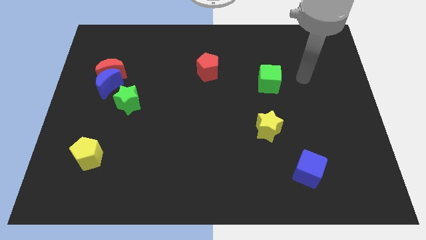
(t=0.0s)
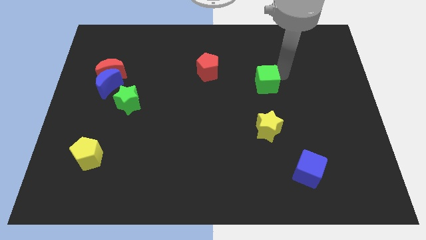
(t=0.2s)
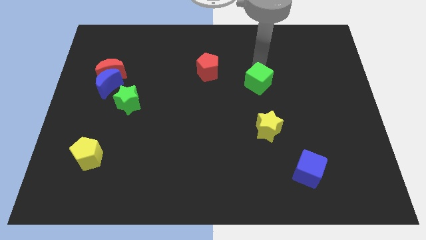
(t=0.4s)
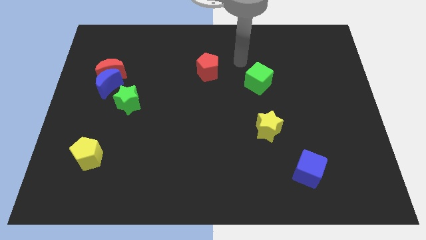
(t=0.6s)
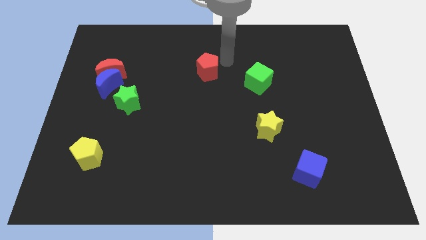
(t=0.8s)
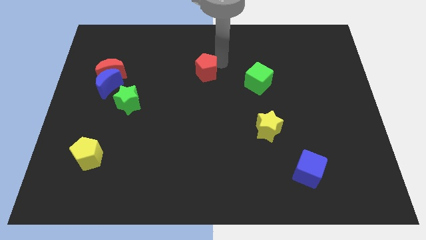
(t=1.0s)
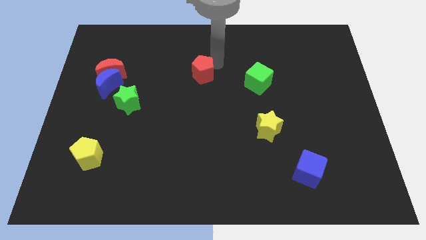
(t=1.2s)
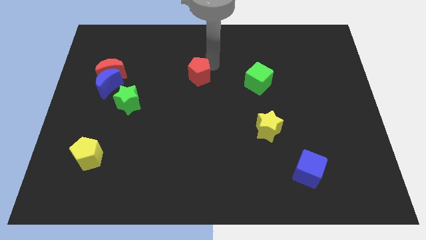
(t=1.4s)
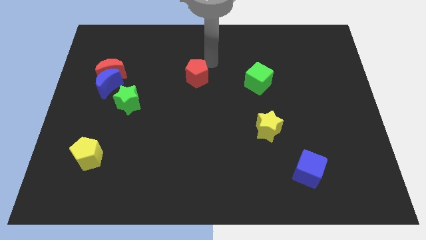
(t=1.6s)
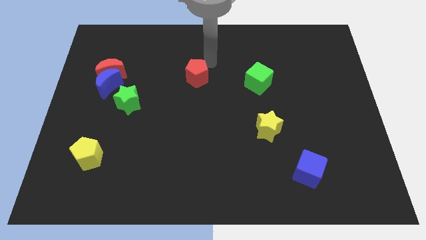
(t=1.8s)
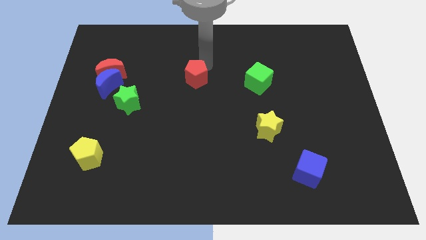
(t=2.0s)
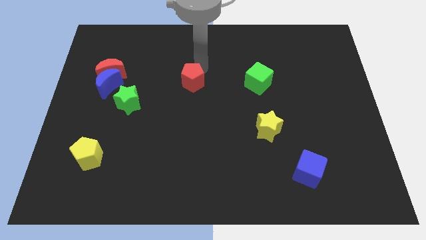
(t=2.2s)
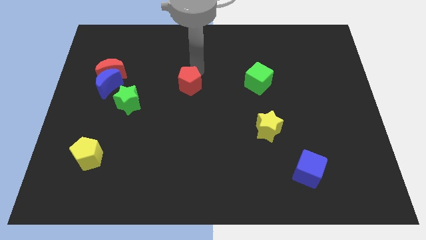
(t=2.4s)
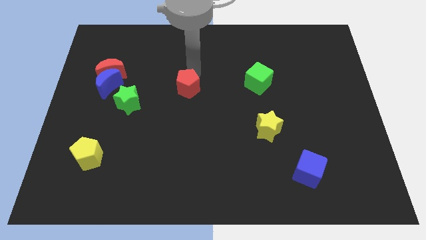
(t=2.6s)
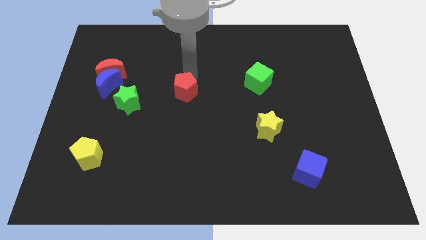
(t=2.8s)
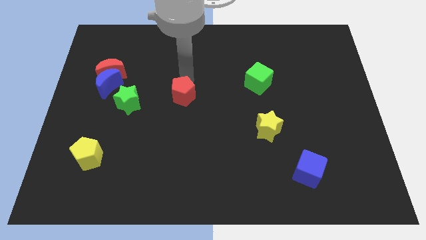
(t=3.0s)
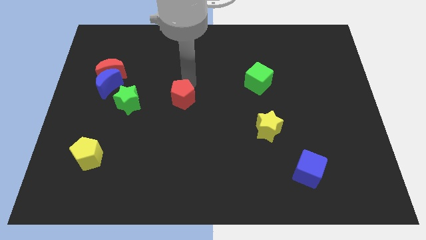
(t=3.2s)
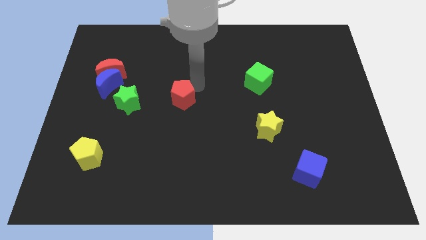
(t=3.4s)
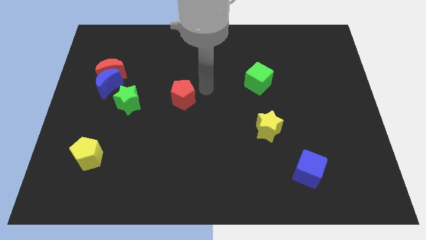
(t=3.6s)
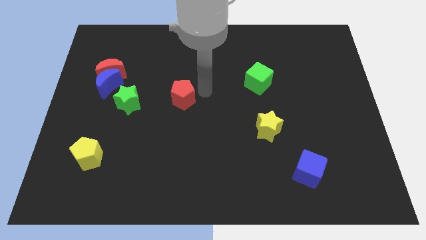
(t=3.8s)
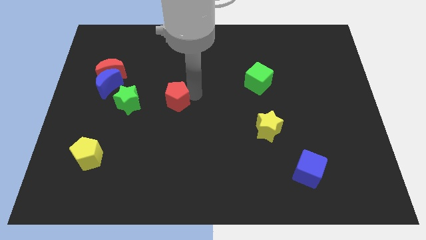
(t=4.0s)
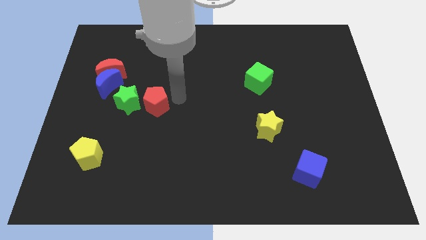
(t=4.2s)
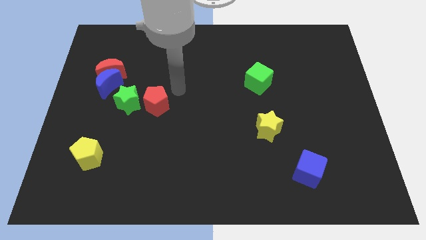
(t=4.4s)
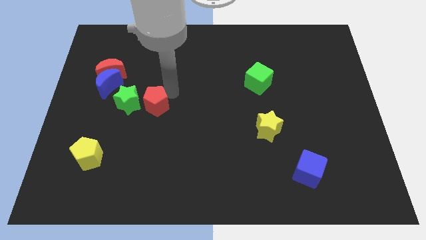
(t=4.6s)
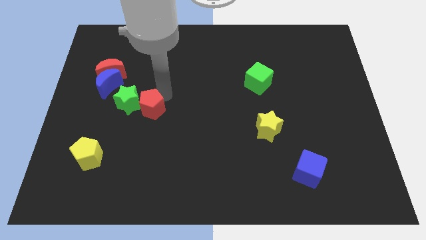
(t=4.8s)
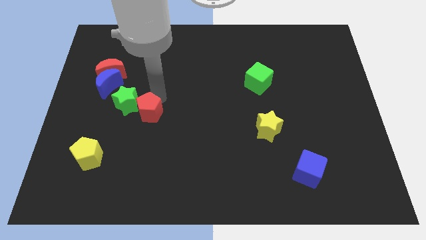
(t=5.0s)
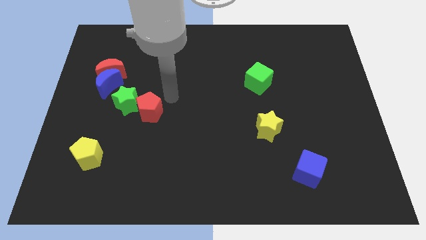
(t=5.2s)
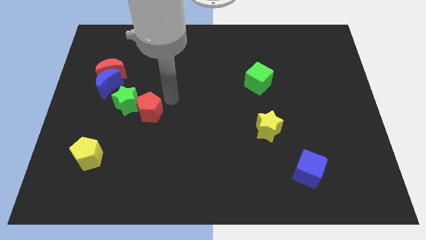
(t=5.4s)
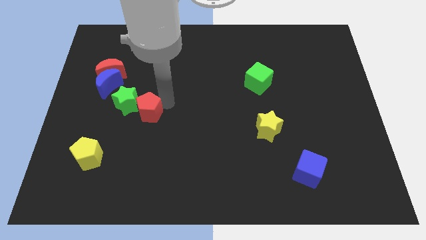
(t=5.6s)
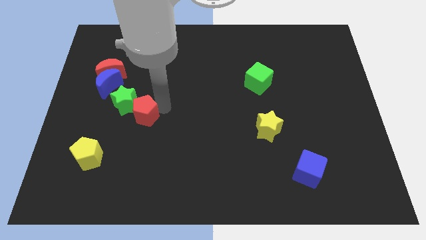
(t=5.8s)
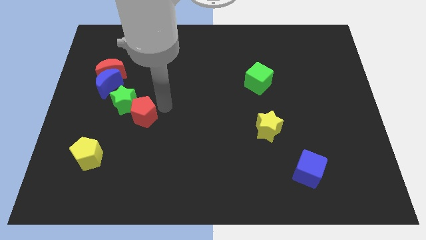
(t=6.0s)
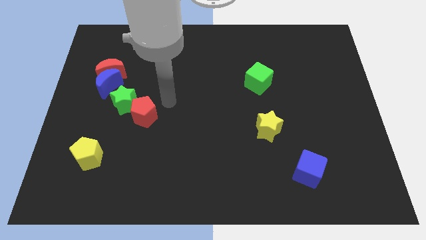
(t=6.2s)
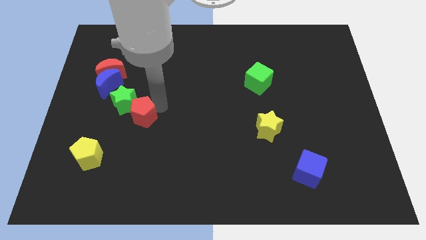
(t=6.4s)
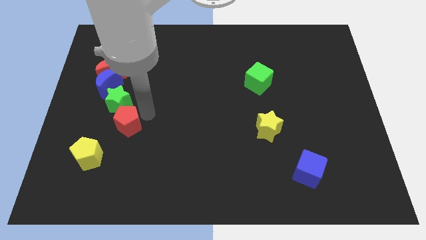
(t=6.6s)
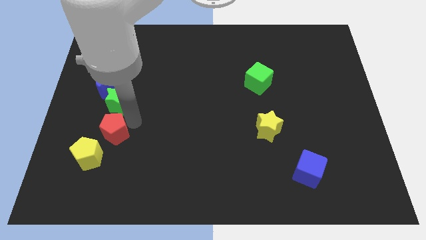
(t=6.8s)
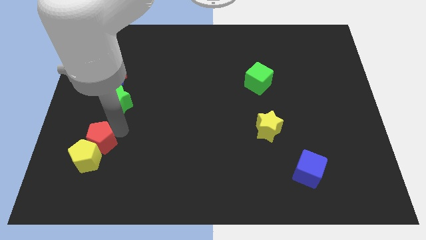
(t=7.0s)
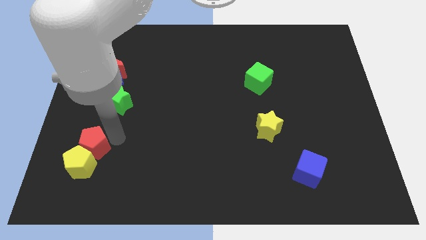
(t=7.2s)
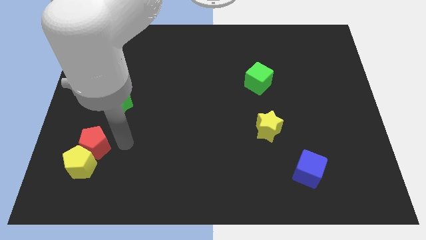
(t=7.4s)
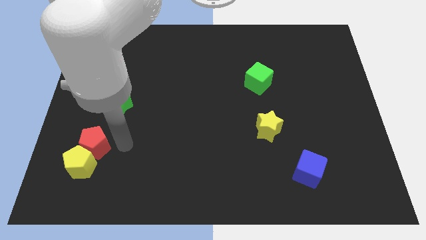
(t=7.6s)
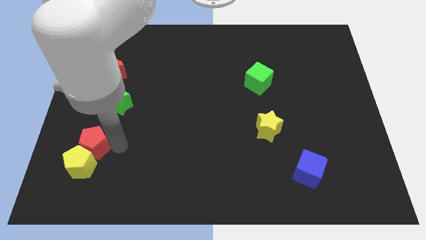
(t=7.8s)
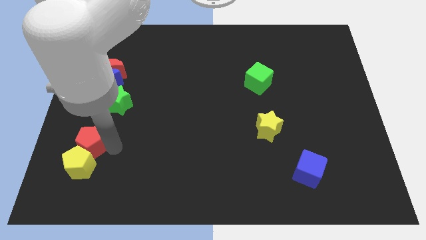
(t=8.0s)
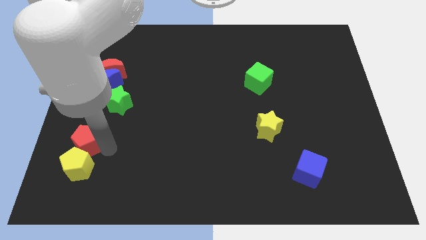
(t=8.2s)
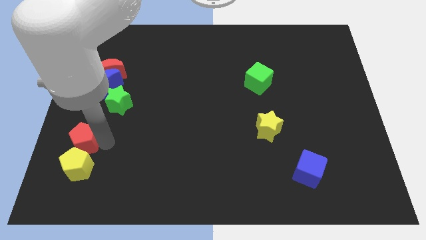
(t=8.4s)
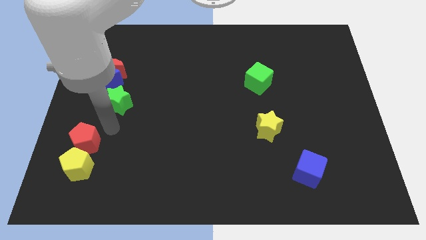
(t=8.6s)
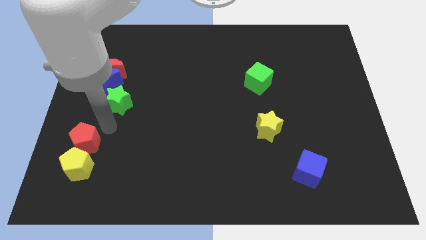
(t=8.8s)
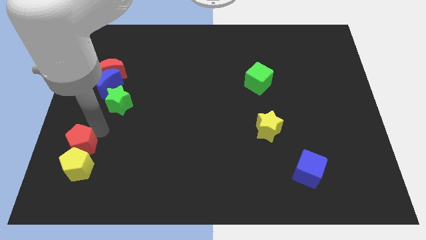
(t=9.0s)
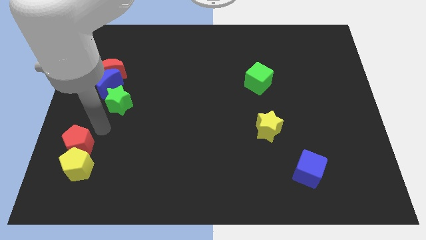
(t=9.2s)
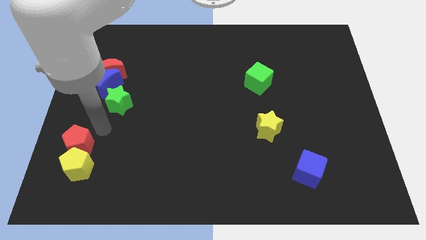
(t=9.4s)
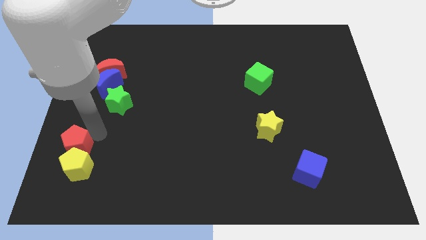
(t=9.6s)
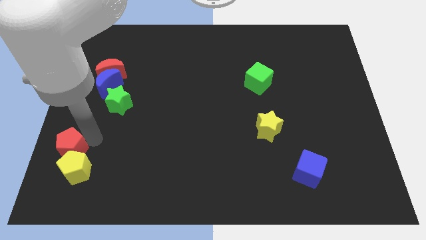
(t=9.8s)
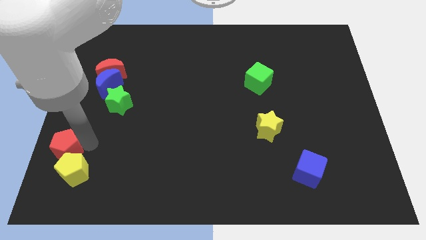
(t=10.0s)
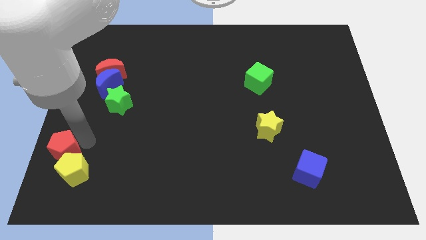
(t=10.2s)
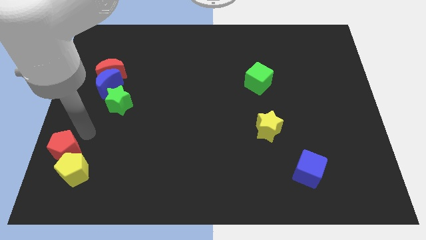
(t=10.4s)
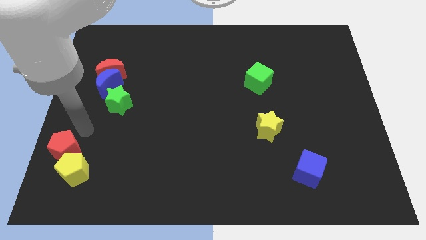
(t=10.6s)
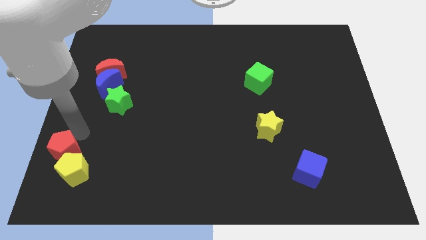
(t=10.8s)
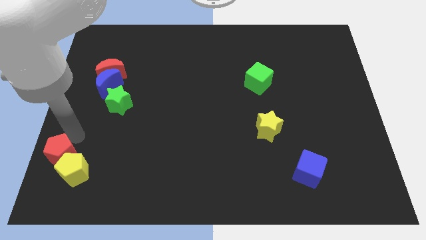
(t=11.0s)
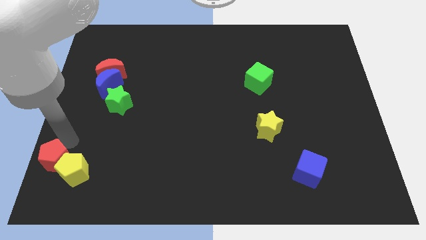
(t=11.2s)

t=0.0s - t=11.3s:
move the red pentagon to the bottom left corner

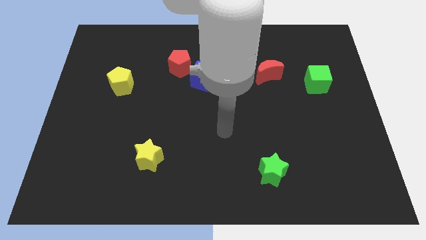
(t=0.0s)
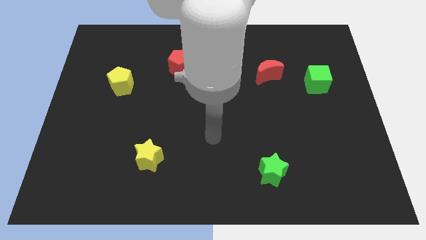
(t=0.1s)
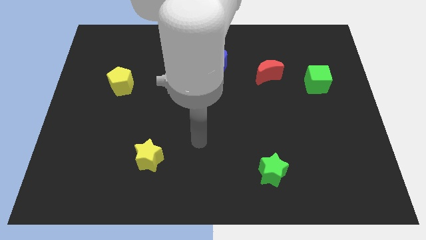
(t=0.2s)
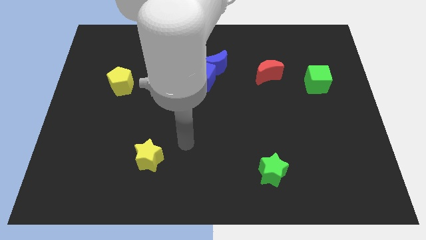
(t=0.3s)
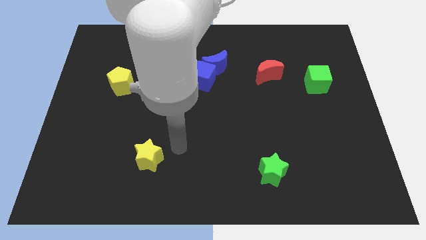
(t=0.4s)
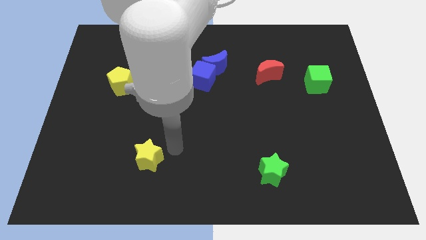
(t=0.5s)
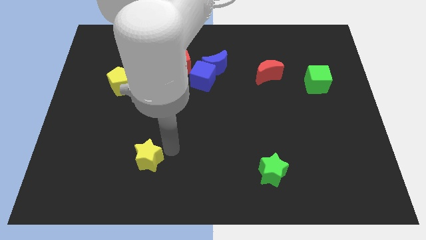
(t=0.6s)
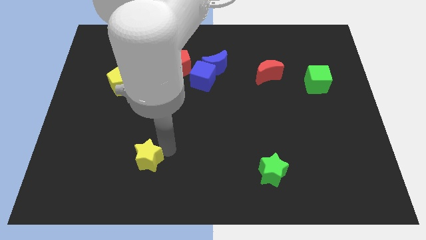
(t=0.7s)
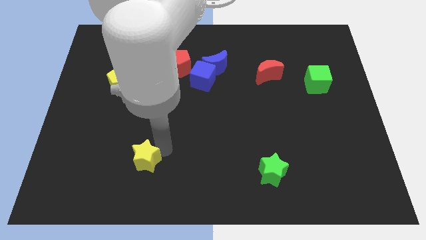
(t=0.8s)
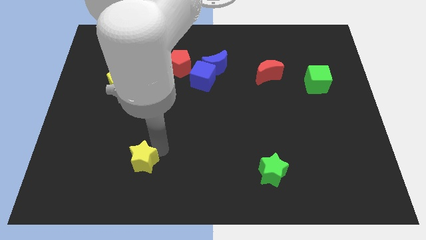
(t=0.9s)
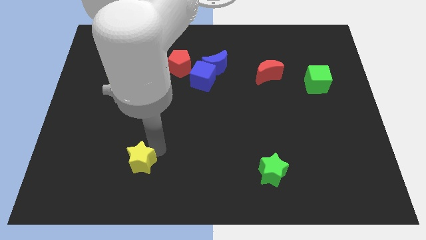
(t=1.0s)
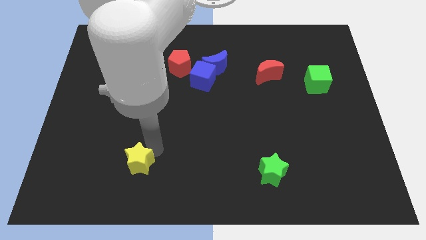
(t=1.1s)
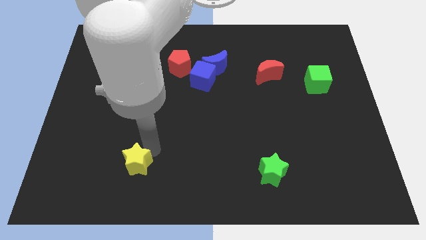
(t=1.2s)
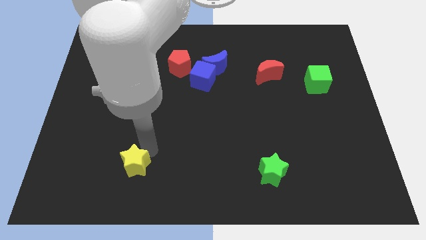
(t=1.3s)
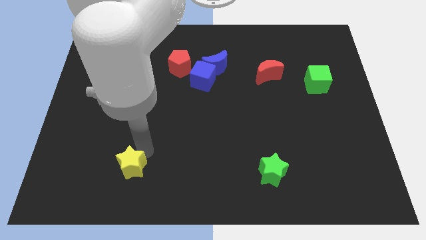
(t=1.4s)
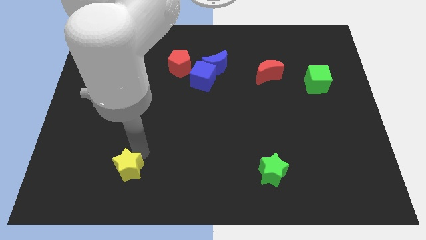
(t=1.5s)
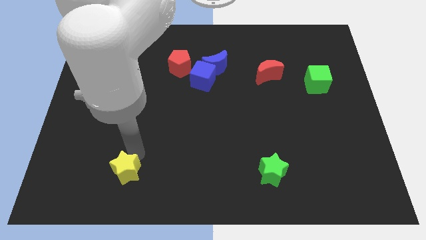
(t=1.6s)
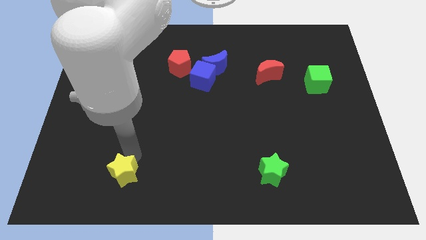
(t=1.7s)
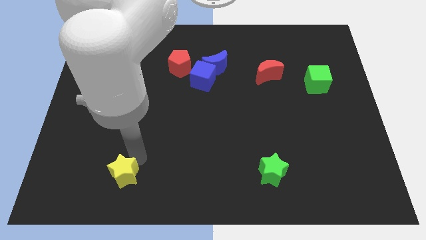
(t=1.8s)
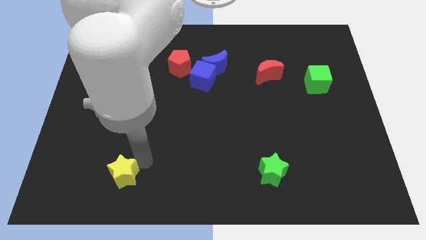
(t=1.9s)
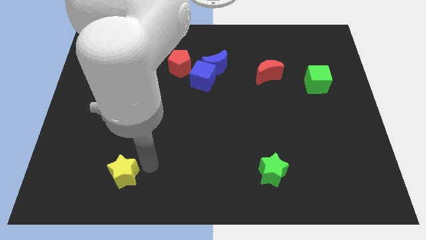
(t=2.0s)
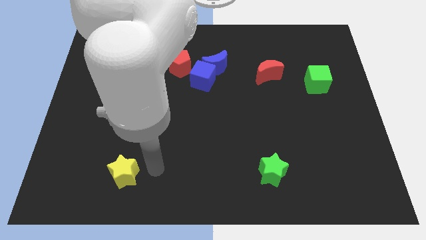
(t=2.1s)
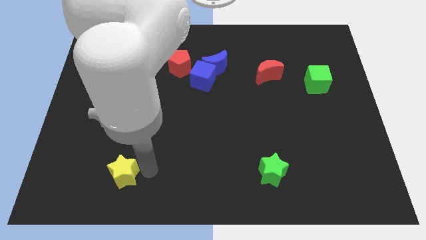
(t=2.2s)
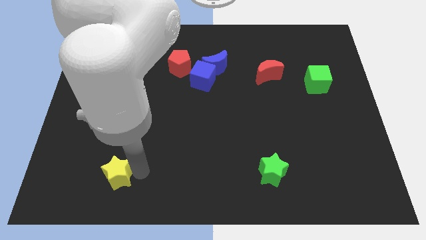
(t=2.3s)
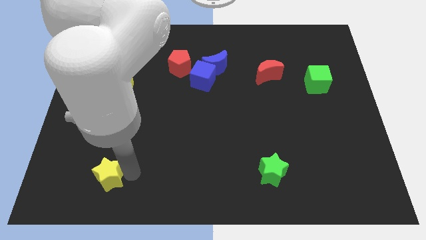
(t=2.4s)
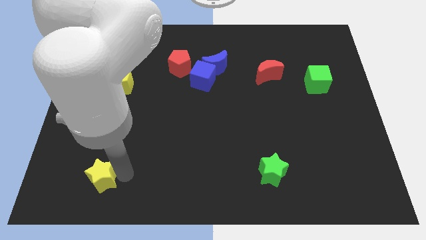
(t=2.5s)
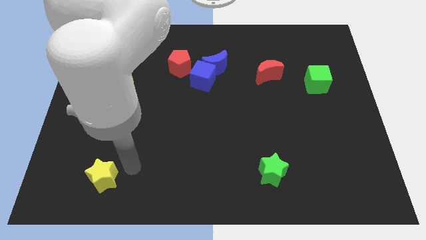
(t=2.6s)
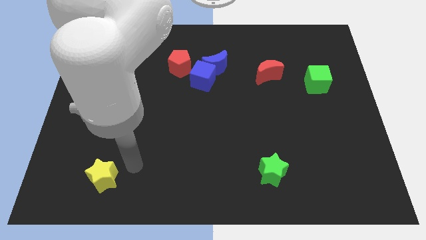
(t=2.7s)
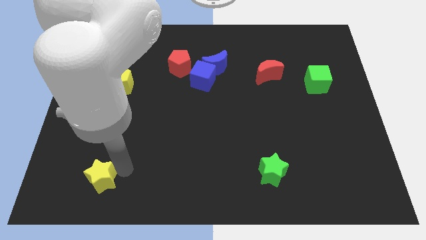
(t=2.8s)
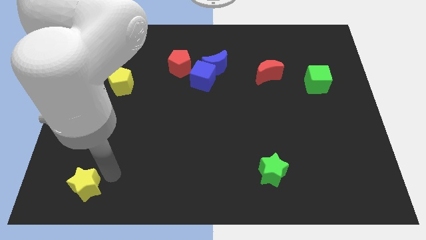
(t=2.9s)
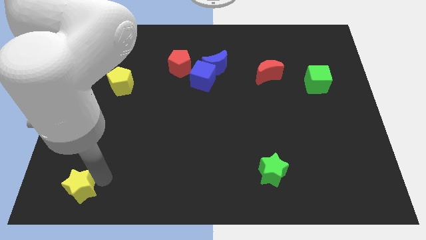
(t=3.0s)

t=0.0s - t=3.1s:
move the yellow star to the lower left corner
